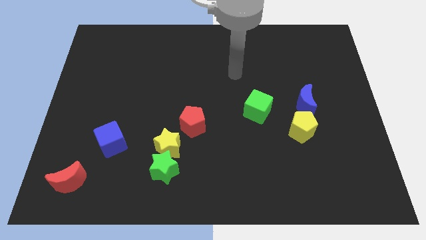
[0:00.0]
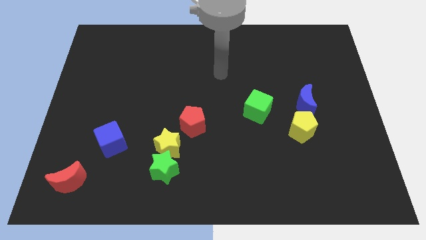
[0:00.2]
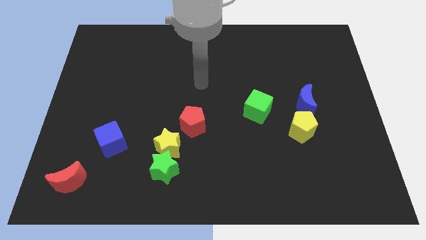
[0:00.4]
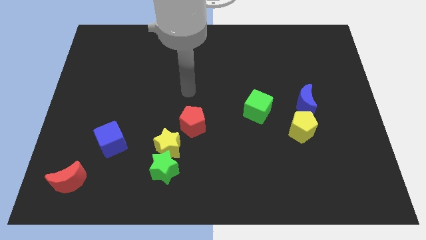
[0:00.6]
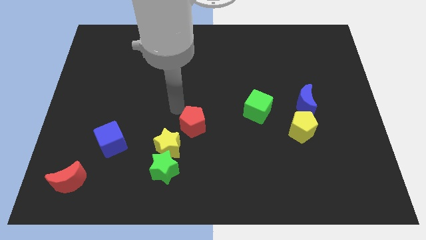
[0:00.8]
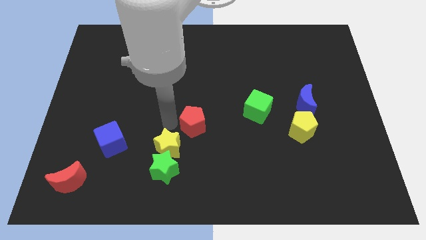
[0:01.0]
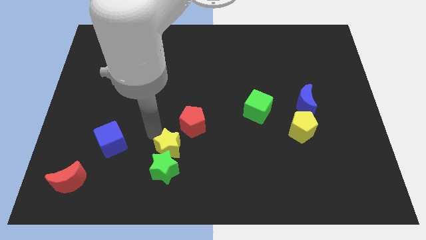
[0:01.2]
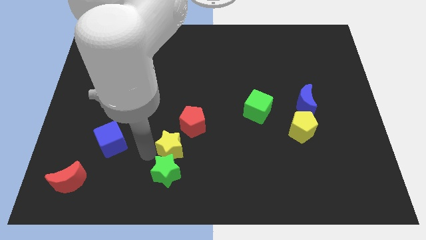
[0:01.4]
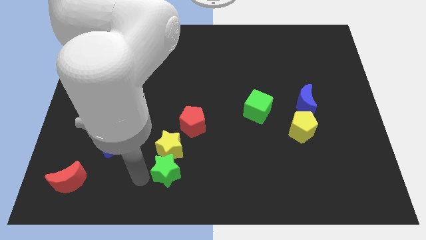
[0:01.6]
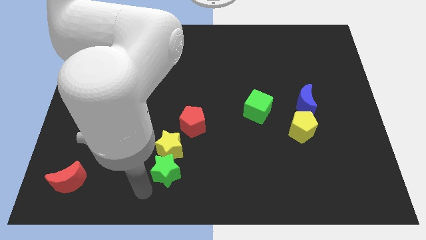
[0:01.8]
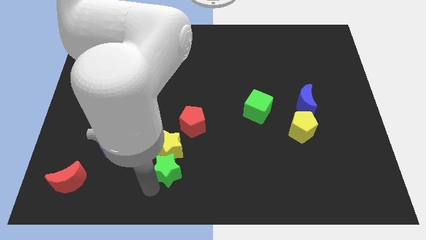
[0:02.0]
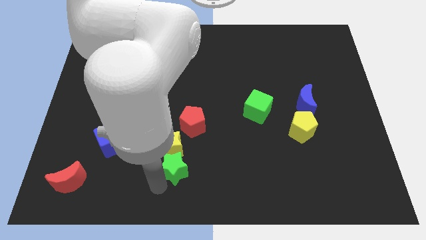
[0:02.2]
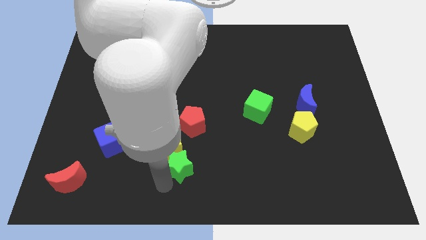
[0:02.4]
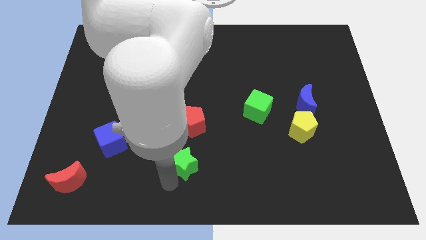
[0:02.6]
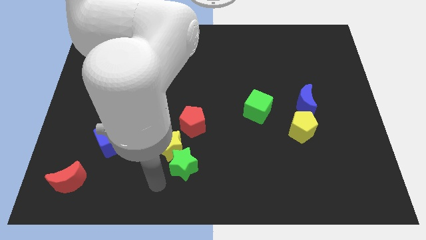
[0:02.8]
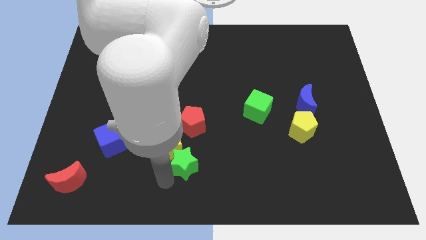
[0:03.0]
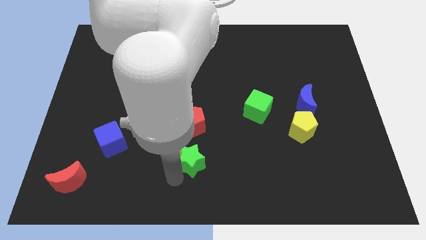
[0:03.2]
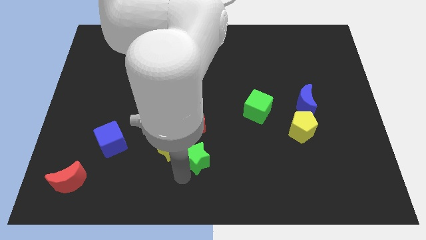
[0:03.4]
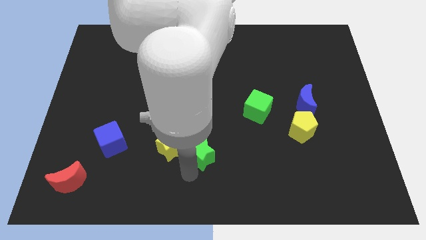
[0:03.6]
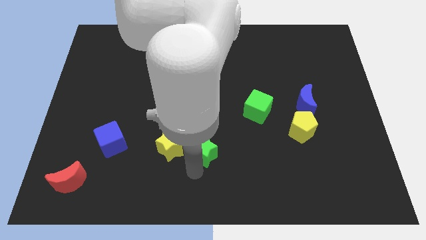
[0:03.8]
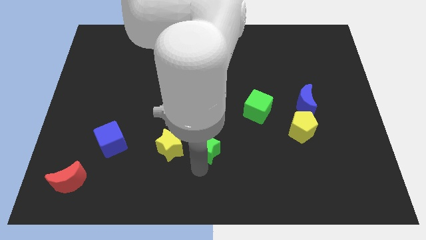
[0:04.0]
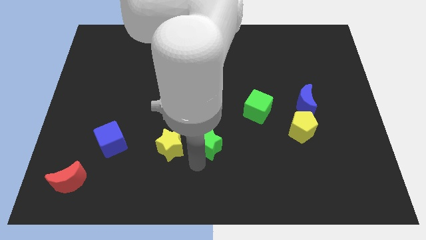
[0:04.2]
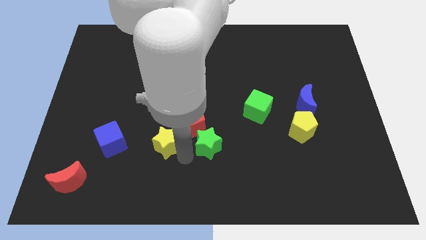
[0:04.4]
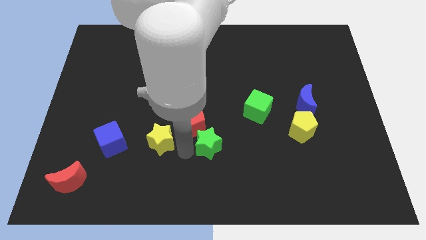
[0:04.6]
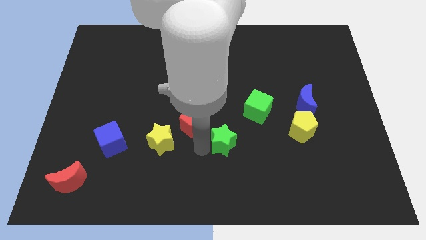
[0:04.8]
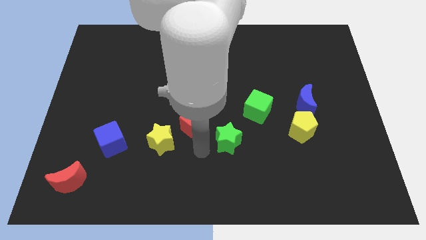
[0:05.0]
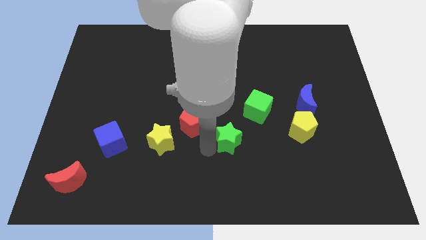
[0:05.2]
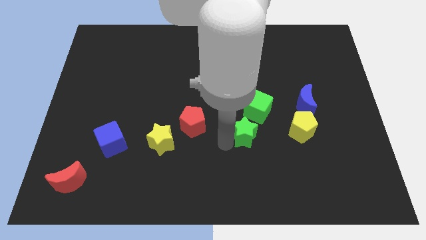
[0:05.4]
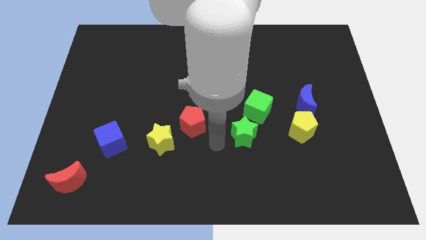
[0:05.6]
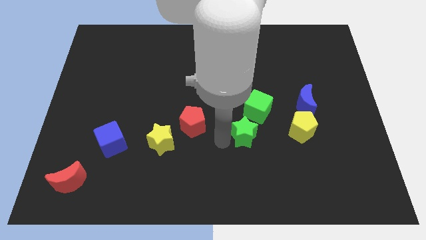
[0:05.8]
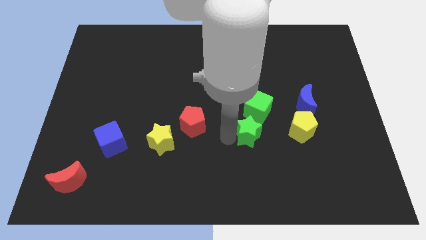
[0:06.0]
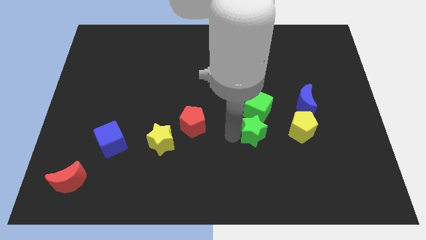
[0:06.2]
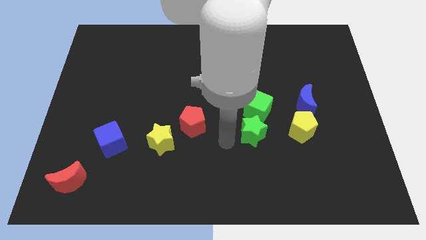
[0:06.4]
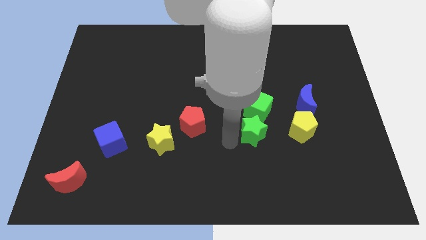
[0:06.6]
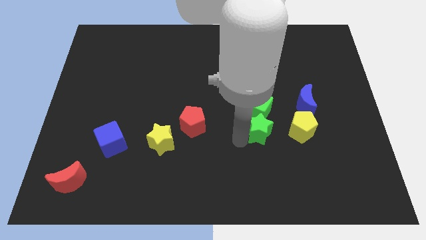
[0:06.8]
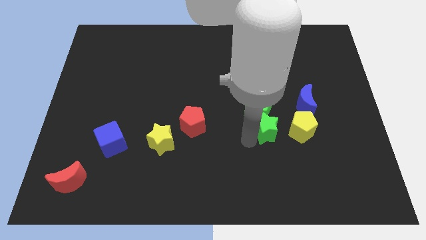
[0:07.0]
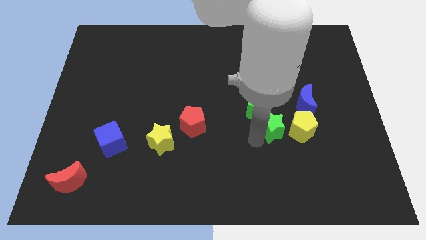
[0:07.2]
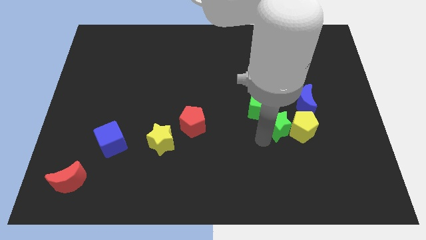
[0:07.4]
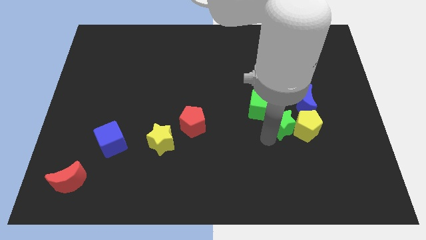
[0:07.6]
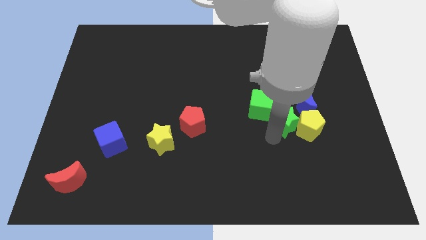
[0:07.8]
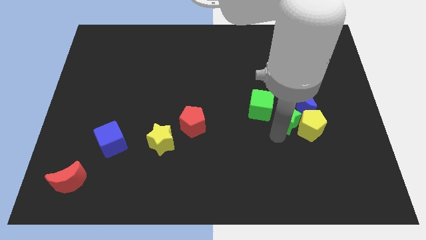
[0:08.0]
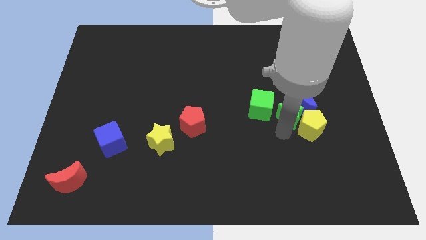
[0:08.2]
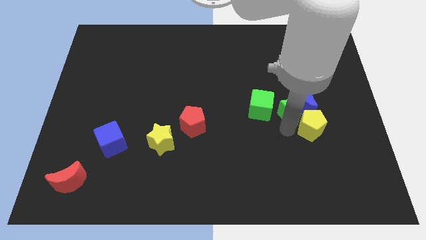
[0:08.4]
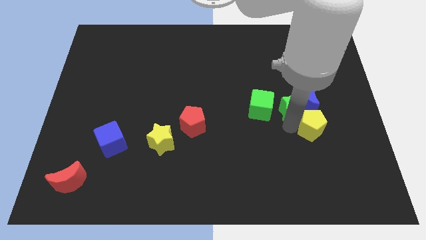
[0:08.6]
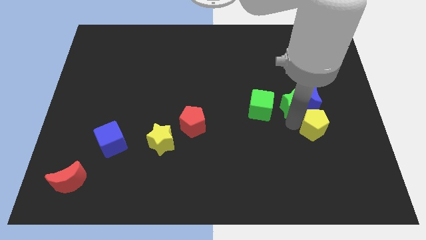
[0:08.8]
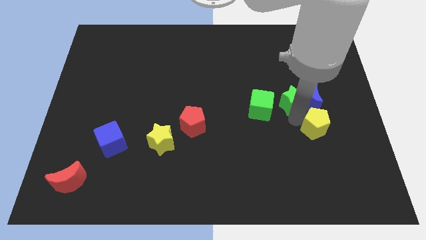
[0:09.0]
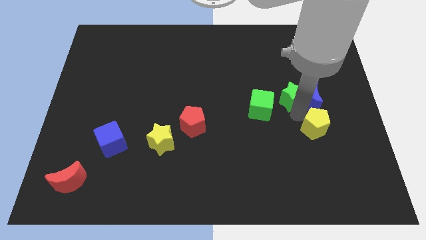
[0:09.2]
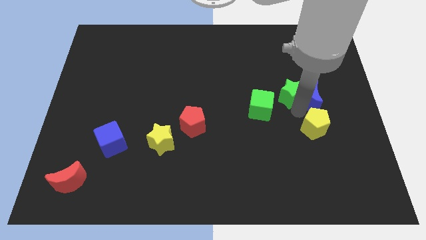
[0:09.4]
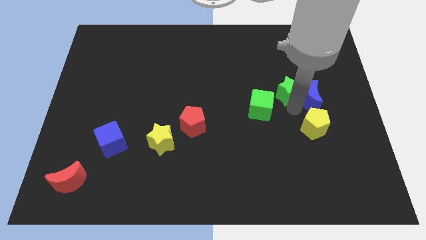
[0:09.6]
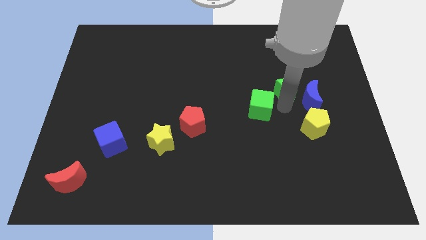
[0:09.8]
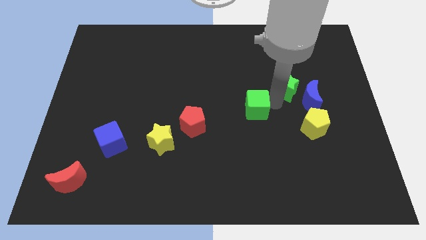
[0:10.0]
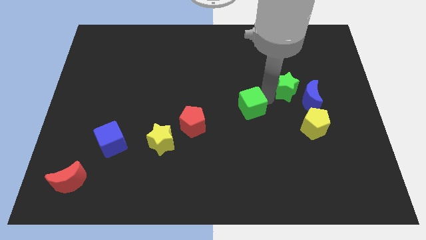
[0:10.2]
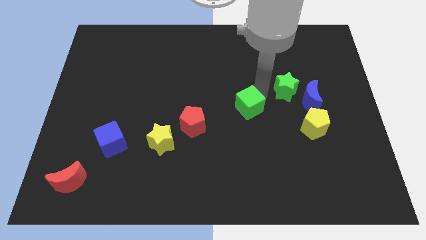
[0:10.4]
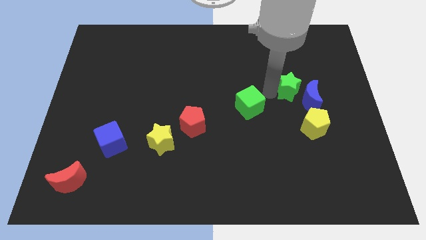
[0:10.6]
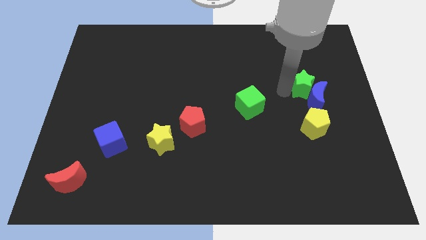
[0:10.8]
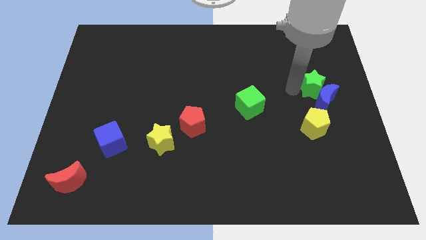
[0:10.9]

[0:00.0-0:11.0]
move the green star to the top right side of the blue moon

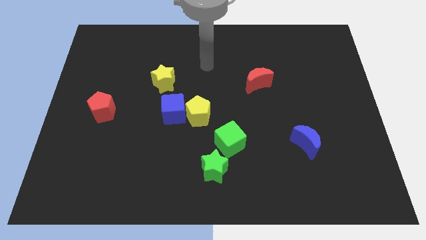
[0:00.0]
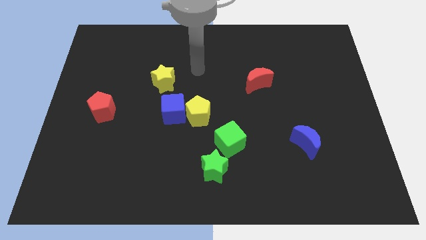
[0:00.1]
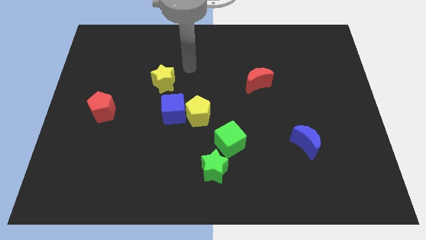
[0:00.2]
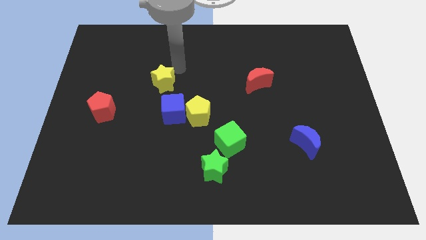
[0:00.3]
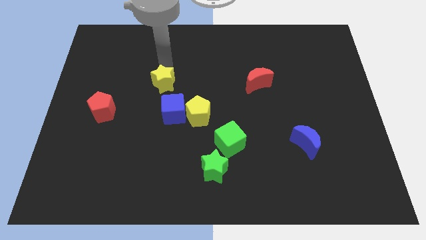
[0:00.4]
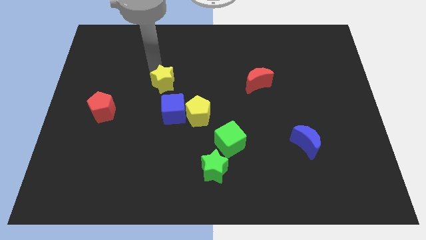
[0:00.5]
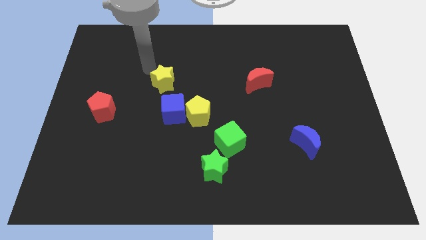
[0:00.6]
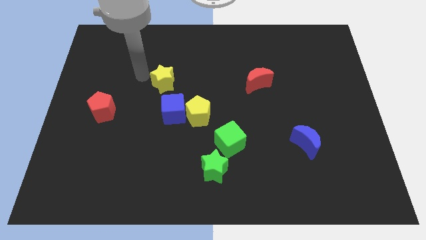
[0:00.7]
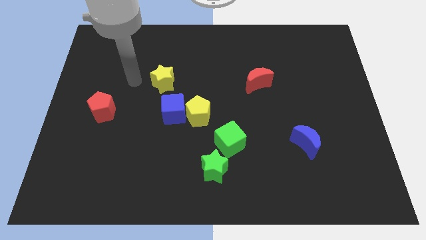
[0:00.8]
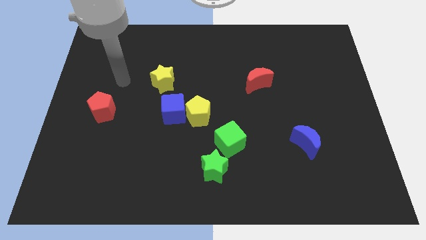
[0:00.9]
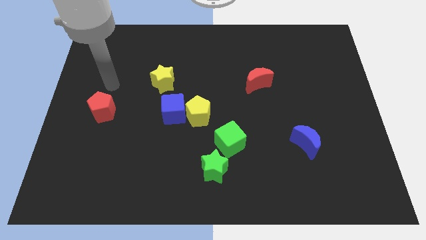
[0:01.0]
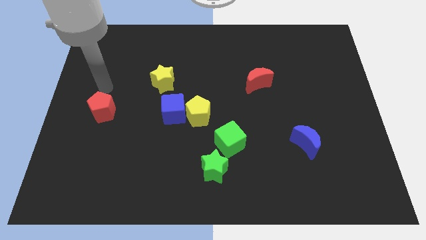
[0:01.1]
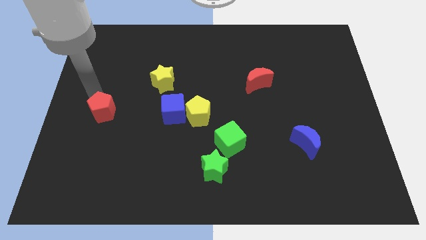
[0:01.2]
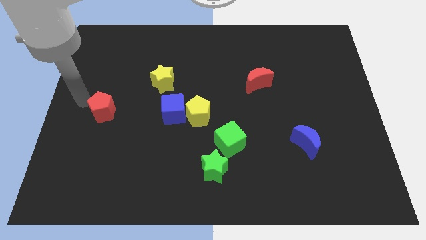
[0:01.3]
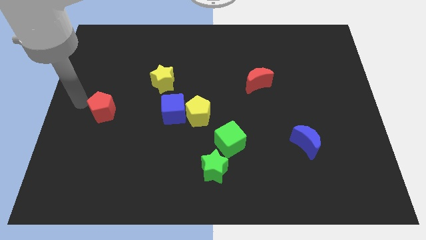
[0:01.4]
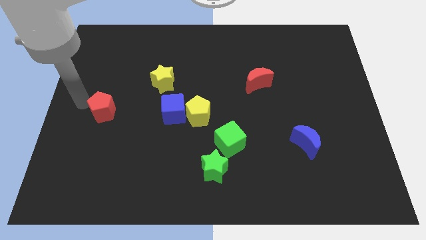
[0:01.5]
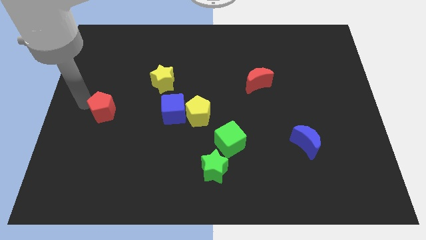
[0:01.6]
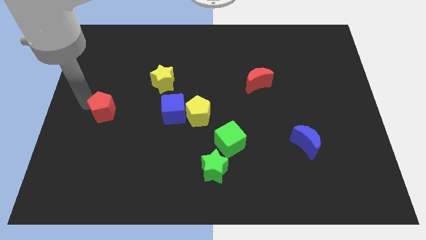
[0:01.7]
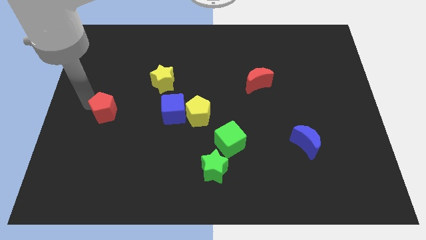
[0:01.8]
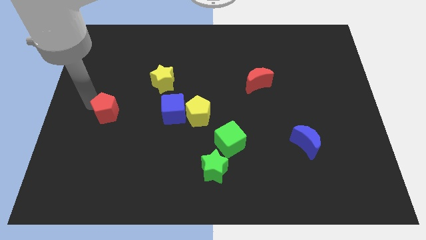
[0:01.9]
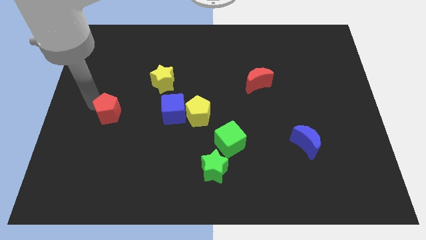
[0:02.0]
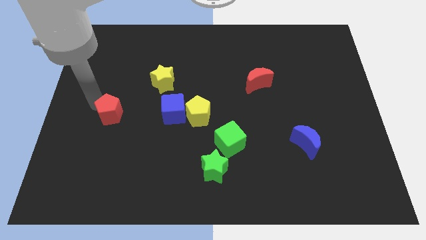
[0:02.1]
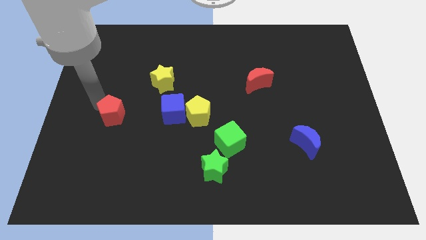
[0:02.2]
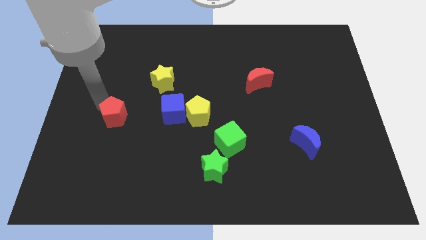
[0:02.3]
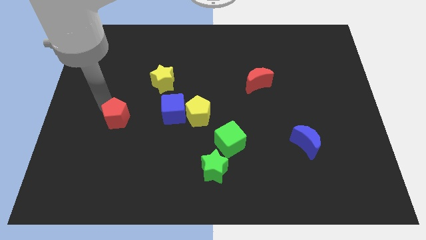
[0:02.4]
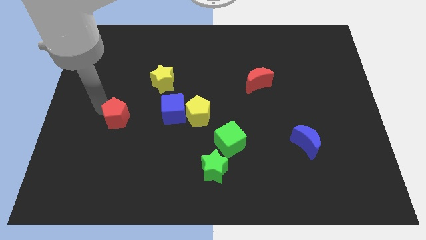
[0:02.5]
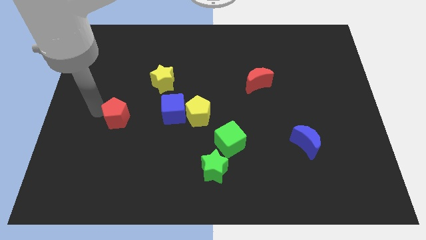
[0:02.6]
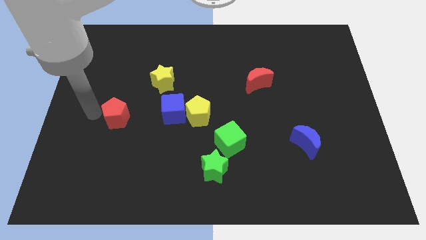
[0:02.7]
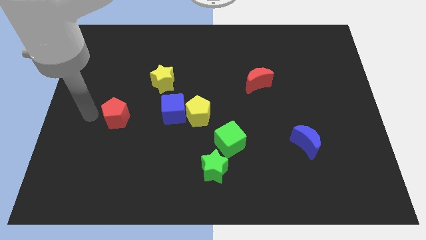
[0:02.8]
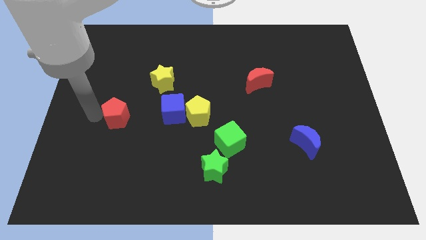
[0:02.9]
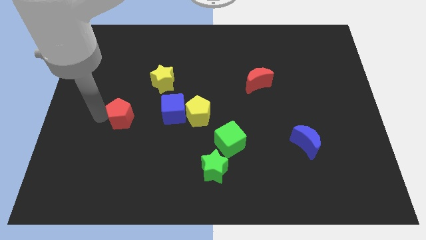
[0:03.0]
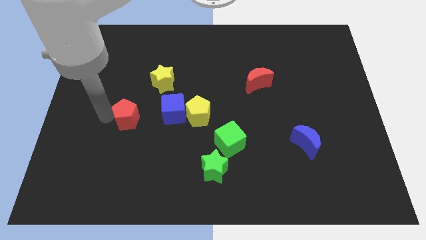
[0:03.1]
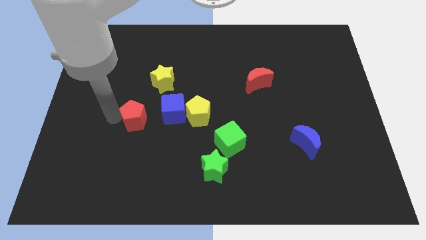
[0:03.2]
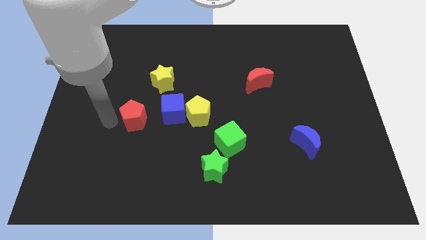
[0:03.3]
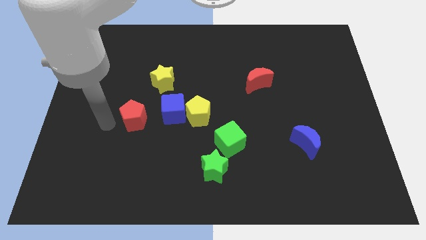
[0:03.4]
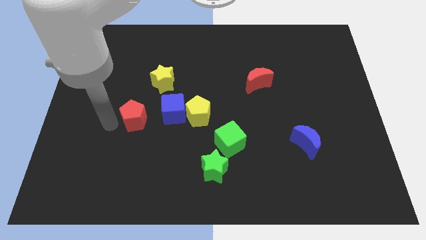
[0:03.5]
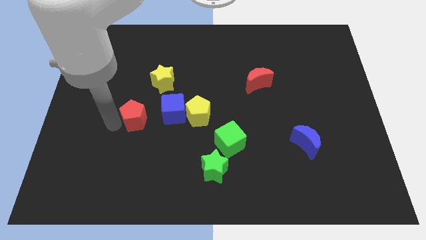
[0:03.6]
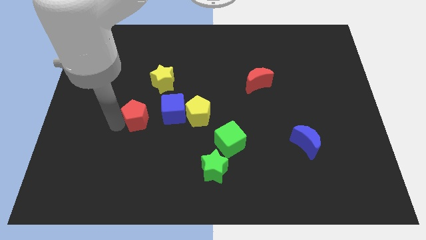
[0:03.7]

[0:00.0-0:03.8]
slide the red pentagon to the bottom of the yellow star
